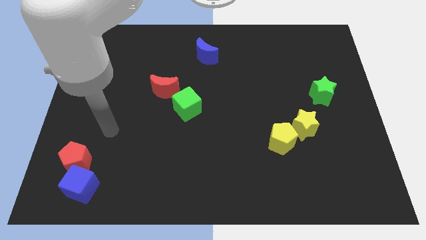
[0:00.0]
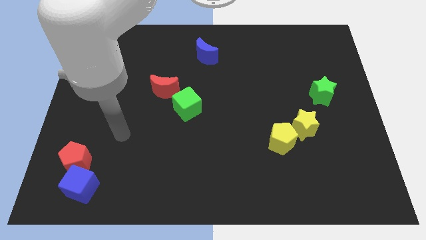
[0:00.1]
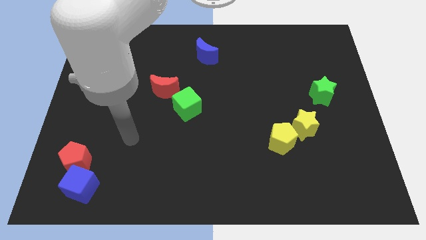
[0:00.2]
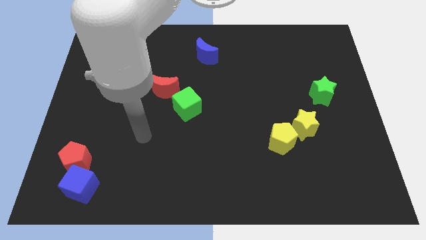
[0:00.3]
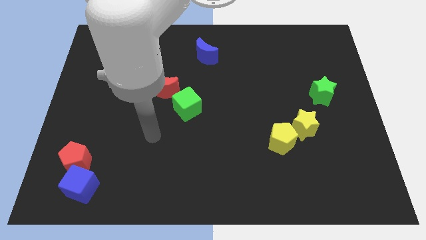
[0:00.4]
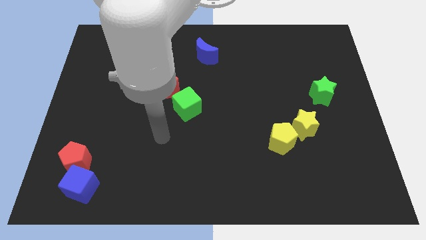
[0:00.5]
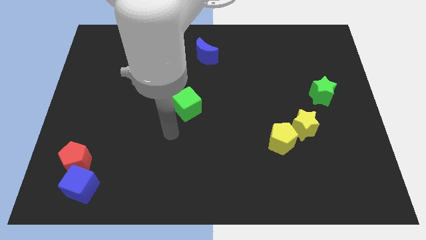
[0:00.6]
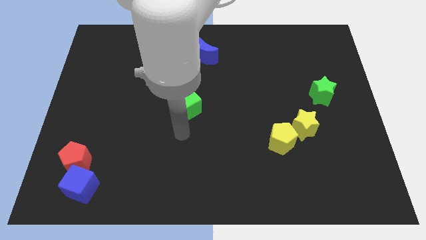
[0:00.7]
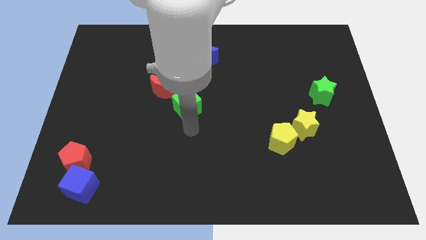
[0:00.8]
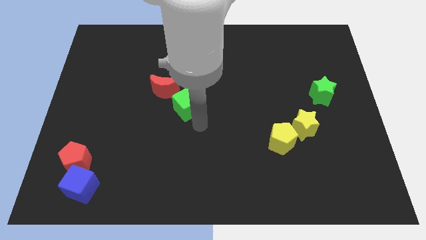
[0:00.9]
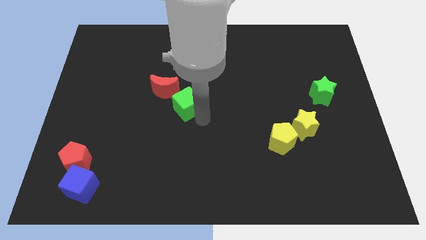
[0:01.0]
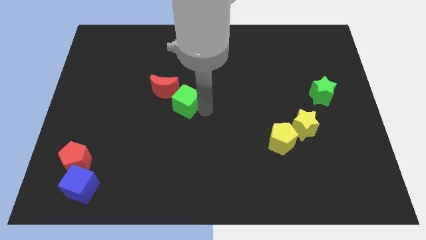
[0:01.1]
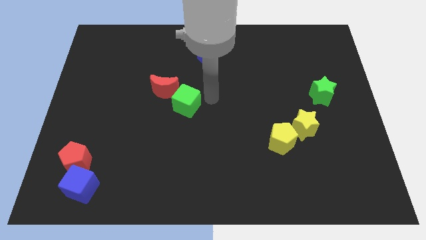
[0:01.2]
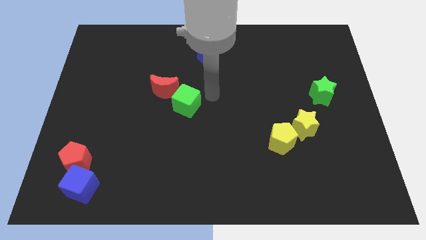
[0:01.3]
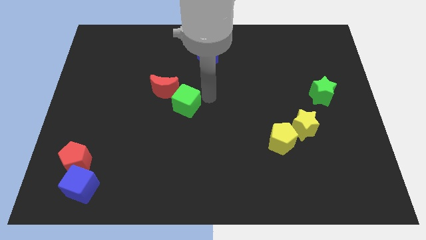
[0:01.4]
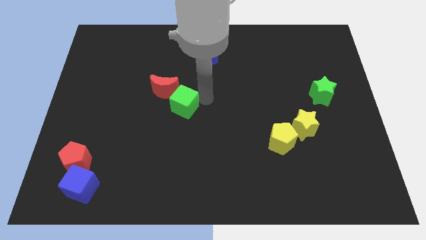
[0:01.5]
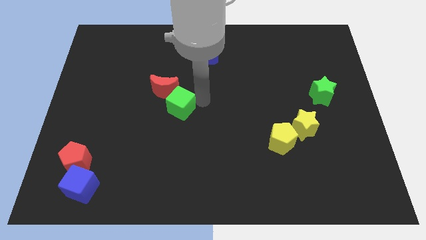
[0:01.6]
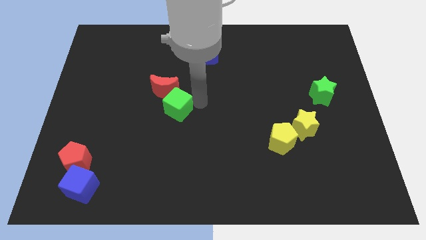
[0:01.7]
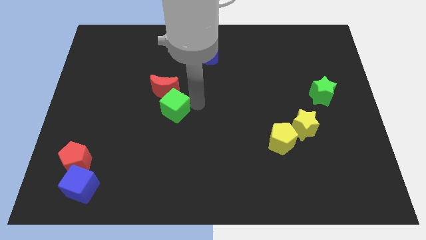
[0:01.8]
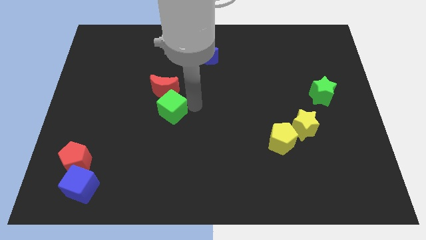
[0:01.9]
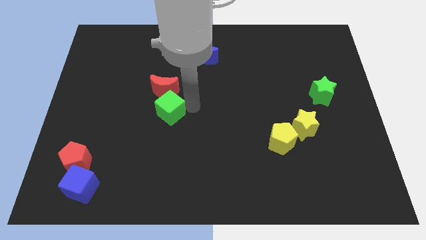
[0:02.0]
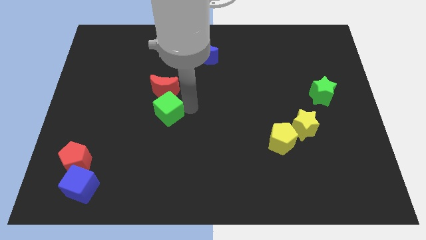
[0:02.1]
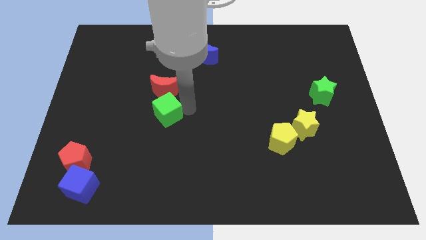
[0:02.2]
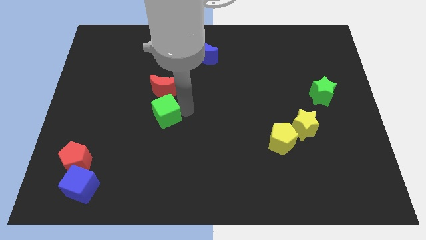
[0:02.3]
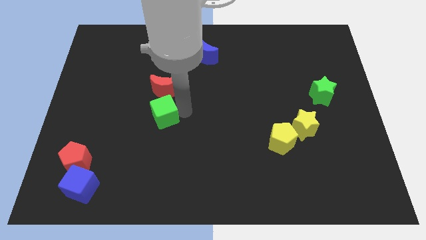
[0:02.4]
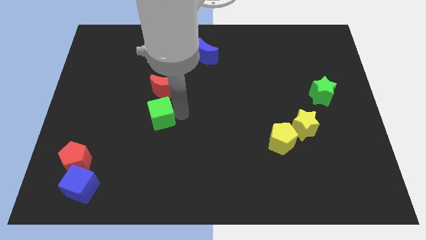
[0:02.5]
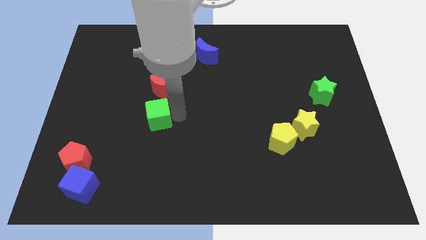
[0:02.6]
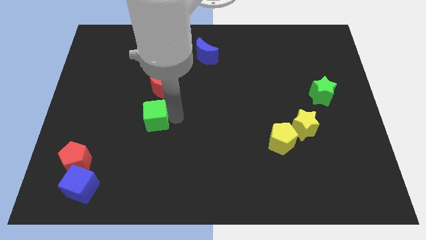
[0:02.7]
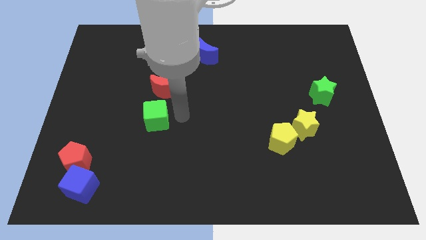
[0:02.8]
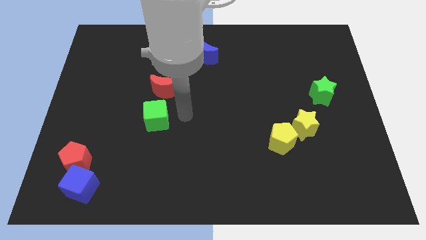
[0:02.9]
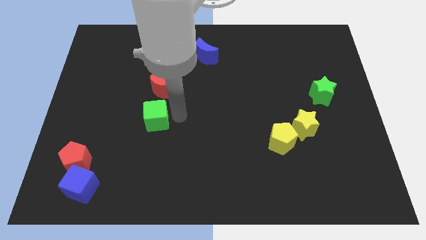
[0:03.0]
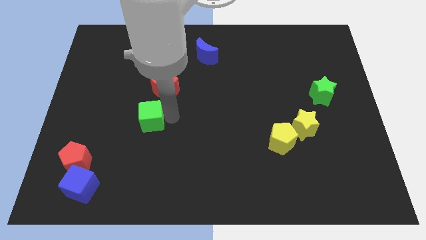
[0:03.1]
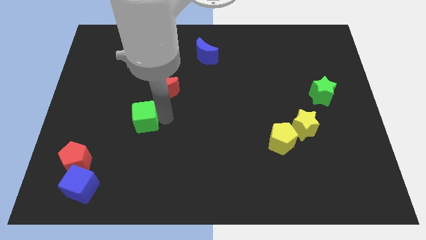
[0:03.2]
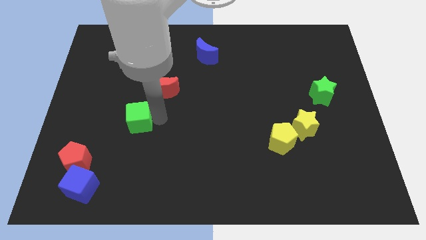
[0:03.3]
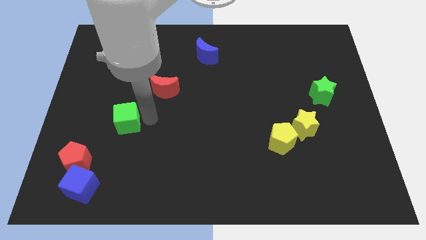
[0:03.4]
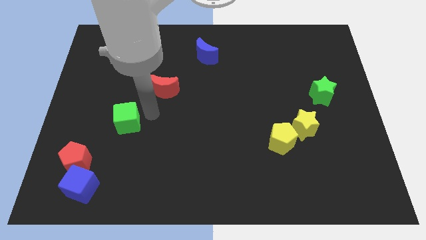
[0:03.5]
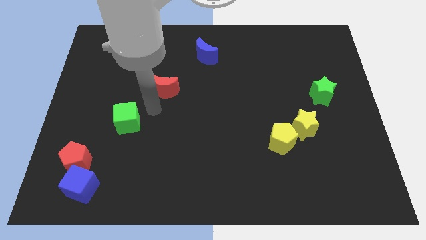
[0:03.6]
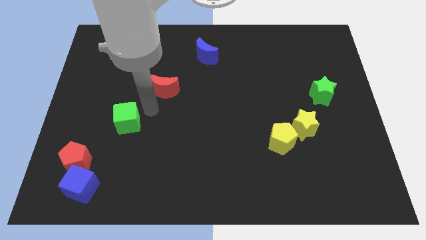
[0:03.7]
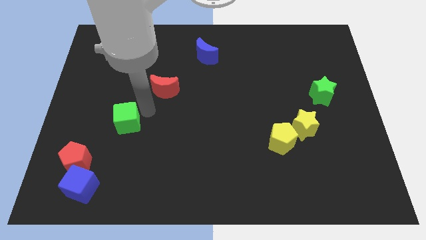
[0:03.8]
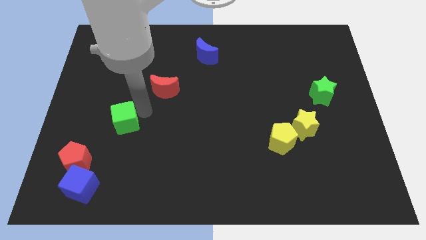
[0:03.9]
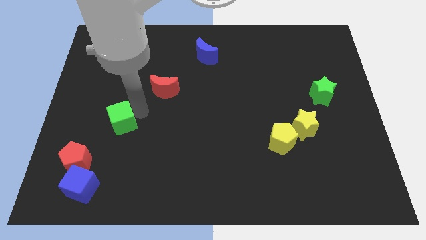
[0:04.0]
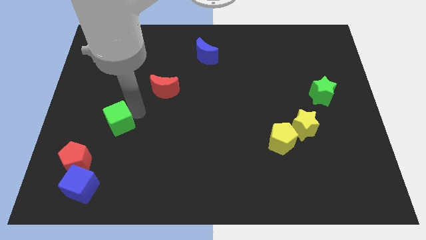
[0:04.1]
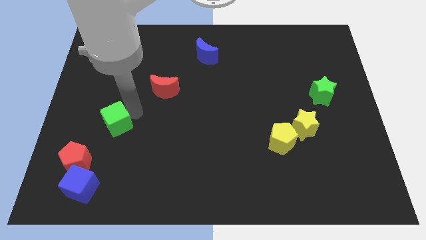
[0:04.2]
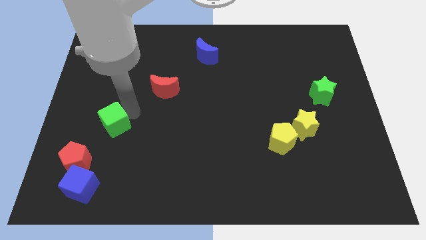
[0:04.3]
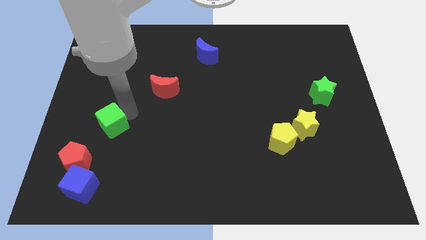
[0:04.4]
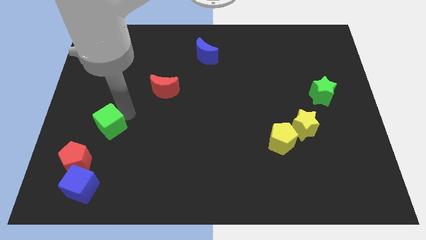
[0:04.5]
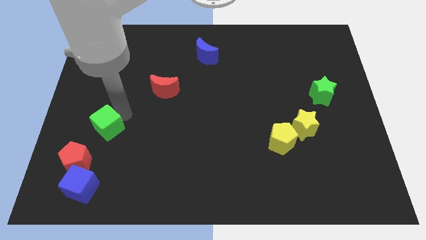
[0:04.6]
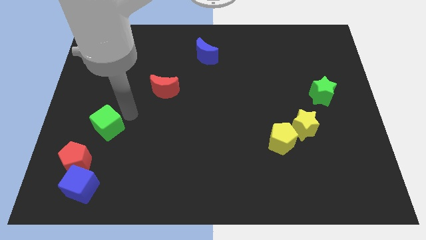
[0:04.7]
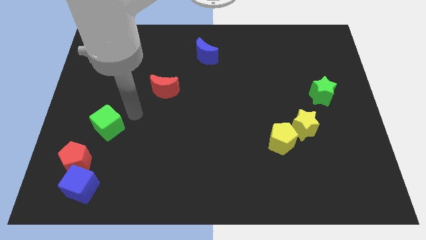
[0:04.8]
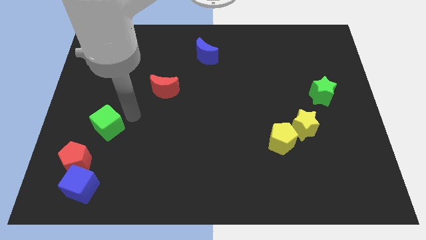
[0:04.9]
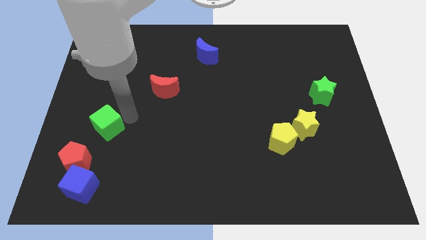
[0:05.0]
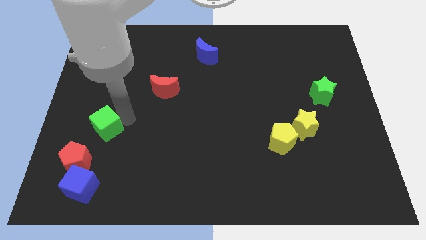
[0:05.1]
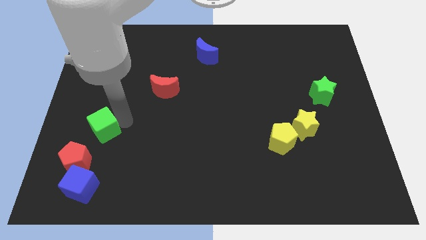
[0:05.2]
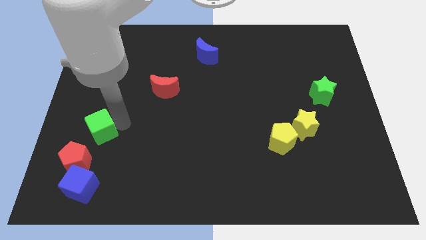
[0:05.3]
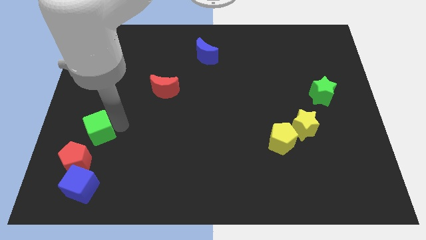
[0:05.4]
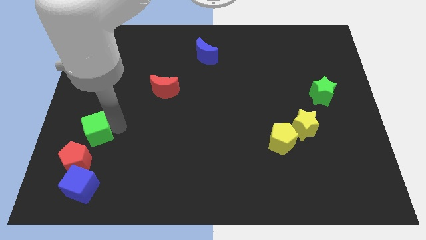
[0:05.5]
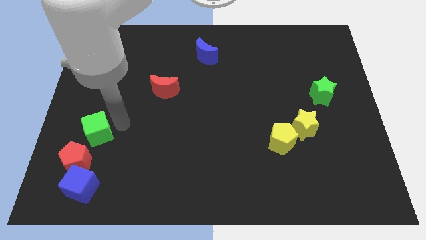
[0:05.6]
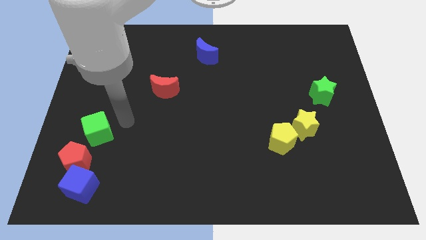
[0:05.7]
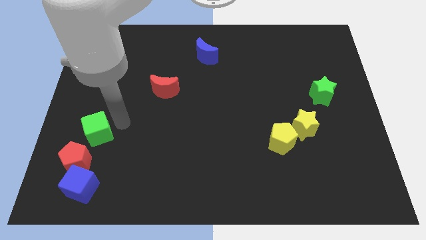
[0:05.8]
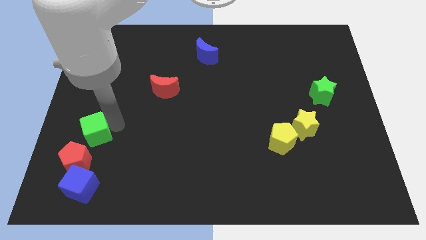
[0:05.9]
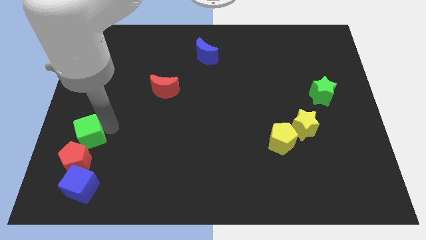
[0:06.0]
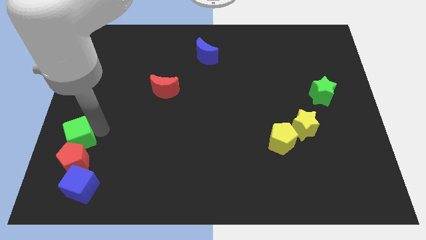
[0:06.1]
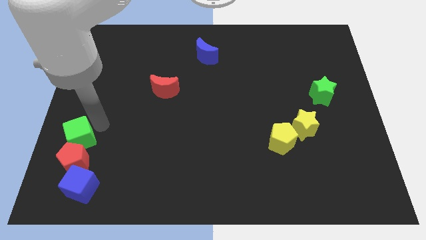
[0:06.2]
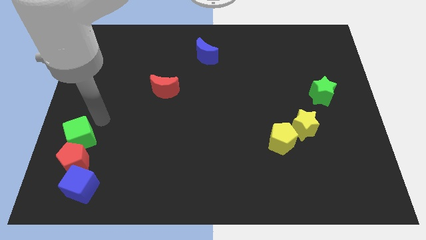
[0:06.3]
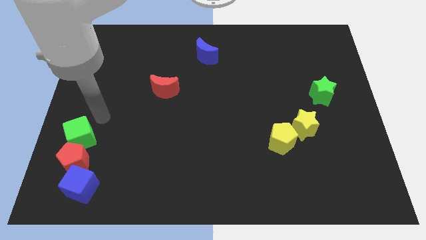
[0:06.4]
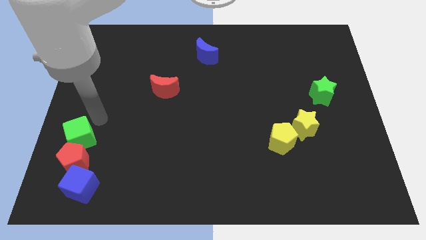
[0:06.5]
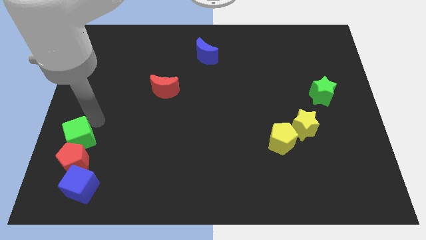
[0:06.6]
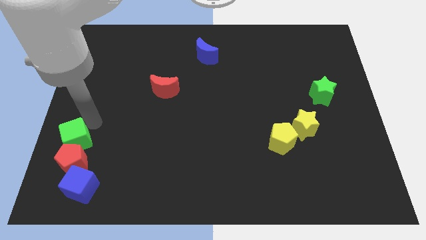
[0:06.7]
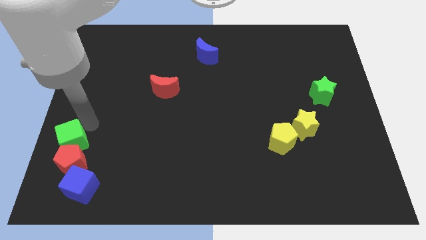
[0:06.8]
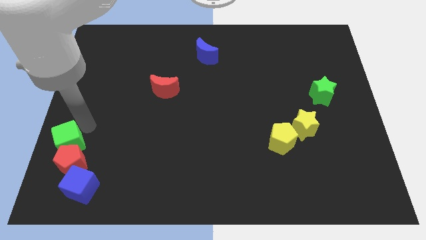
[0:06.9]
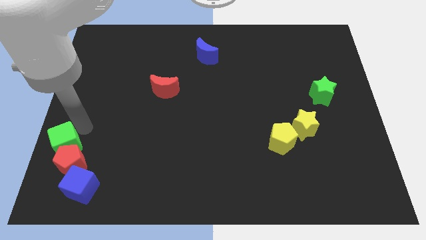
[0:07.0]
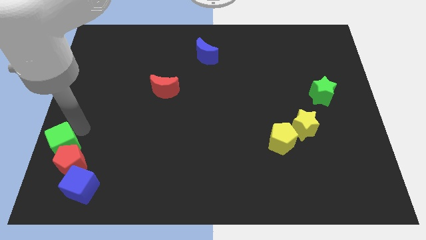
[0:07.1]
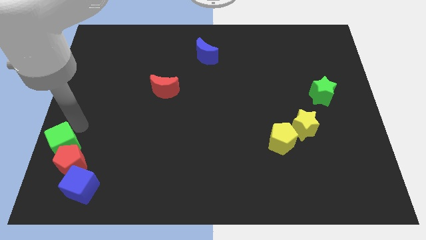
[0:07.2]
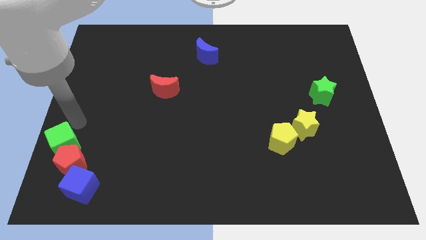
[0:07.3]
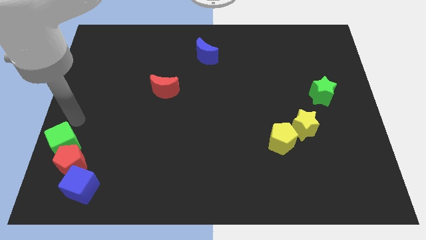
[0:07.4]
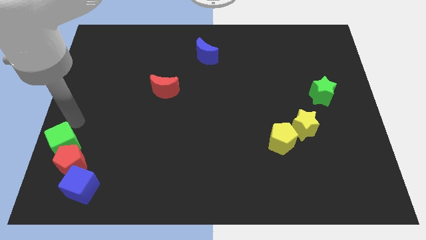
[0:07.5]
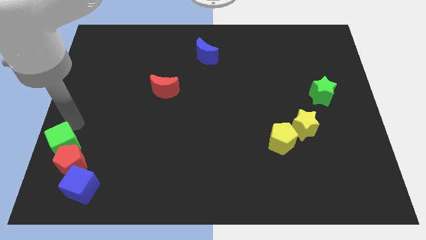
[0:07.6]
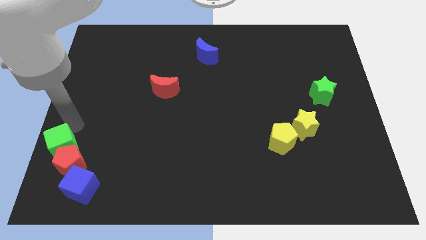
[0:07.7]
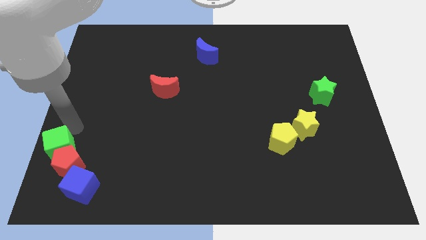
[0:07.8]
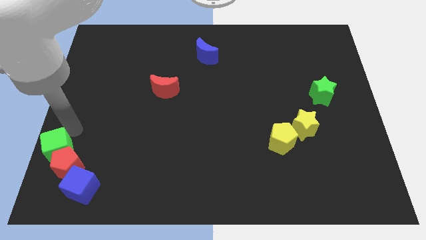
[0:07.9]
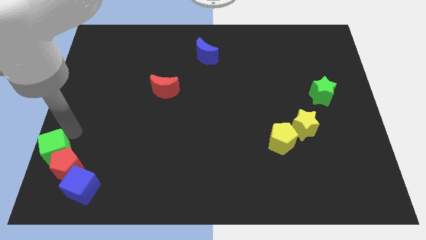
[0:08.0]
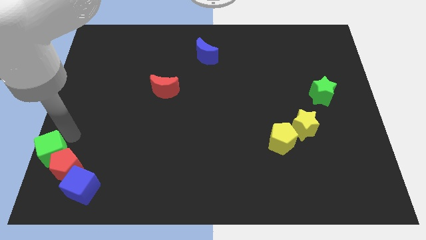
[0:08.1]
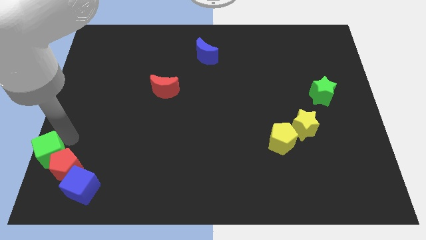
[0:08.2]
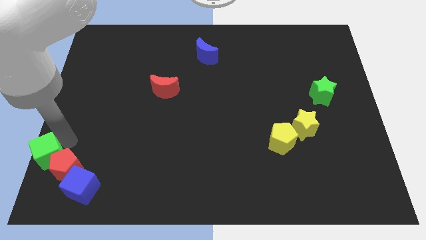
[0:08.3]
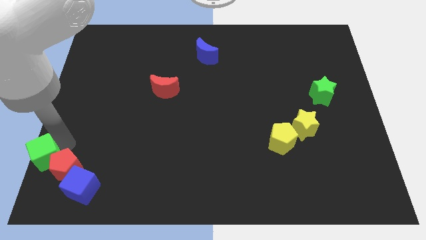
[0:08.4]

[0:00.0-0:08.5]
slide the green cube to the lower left corner
